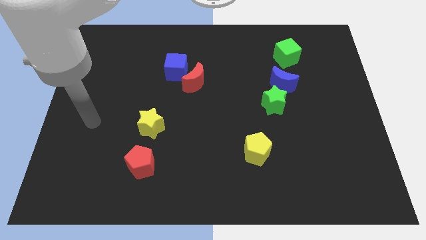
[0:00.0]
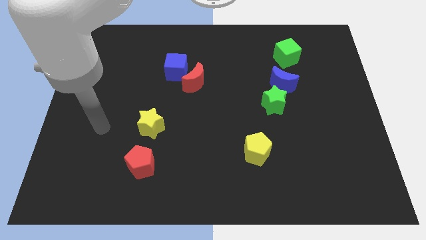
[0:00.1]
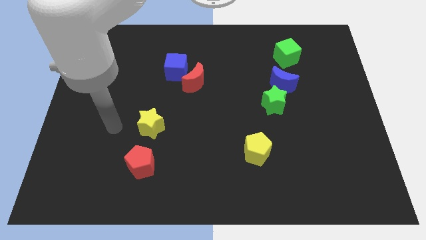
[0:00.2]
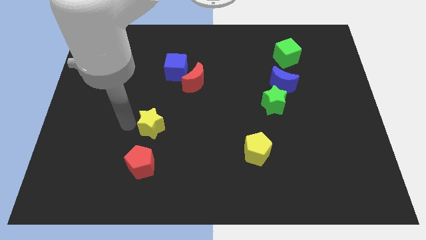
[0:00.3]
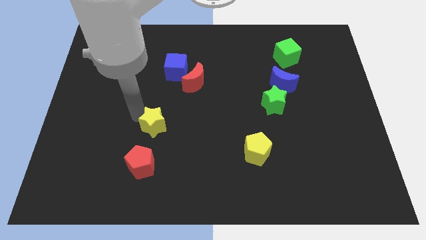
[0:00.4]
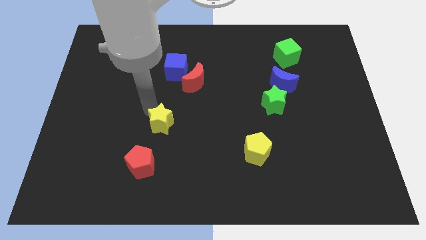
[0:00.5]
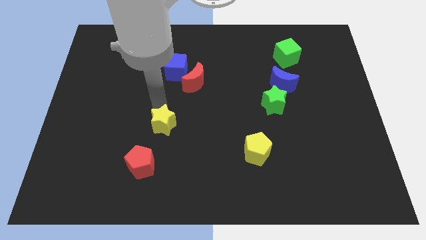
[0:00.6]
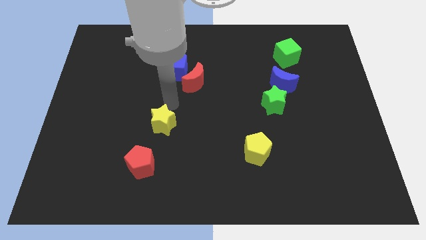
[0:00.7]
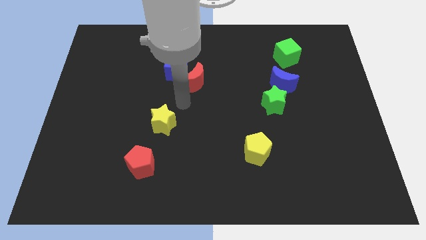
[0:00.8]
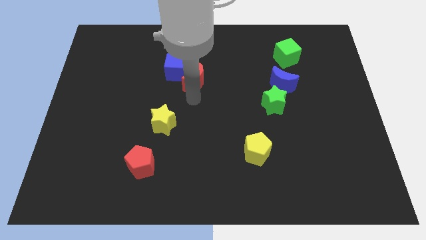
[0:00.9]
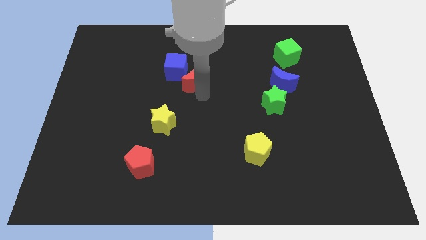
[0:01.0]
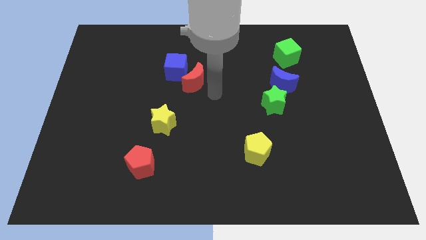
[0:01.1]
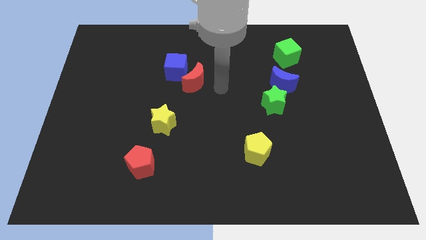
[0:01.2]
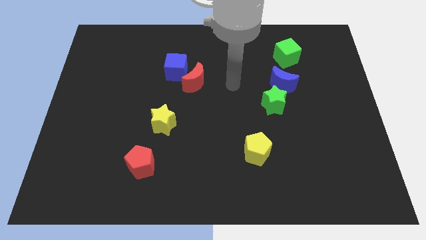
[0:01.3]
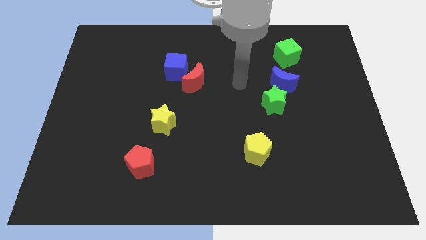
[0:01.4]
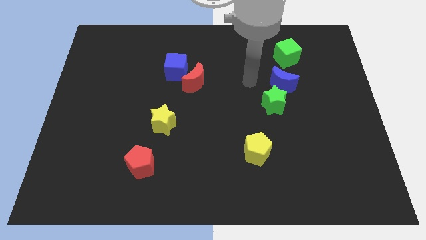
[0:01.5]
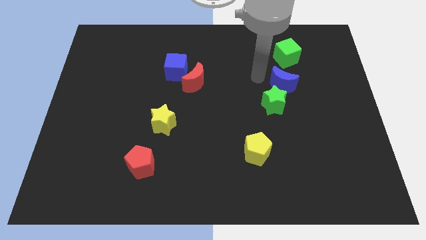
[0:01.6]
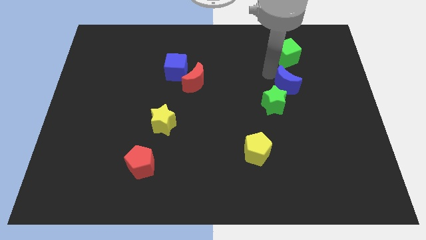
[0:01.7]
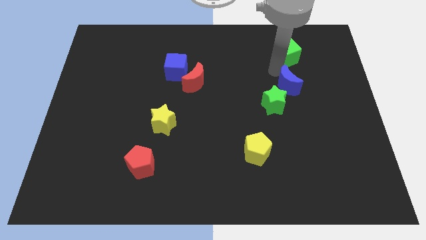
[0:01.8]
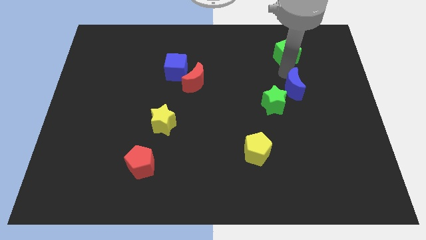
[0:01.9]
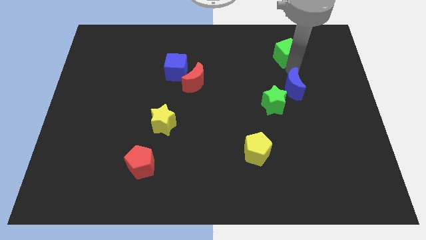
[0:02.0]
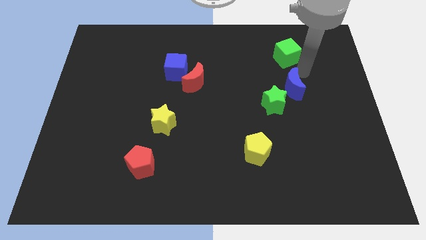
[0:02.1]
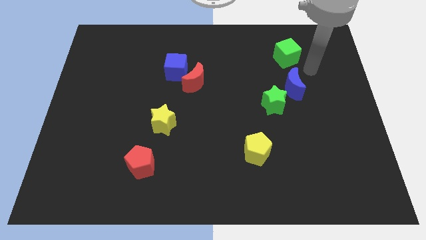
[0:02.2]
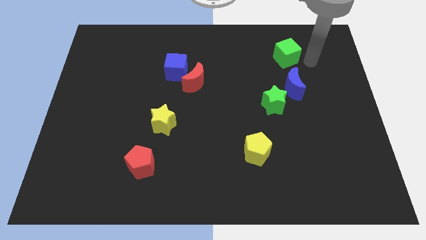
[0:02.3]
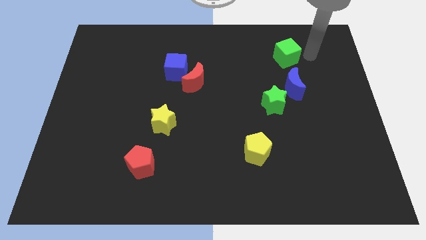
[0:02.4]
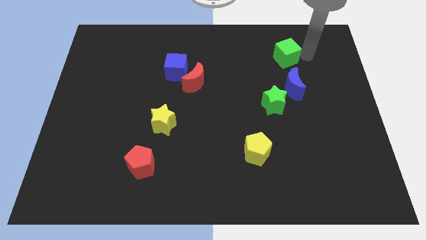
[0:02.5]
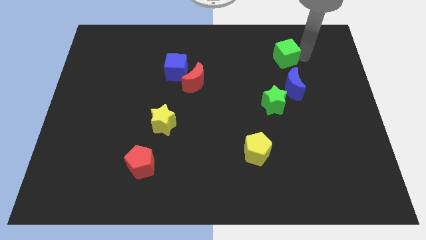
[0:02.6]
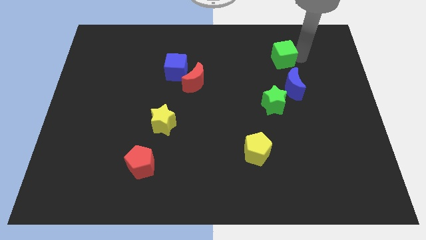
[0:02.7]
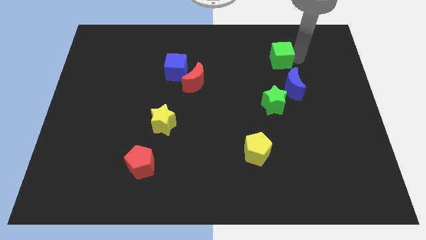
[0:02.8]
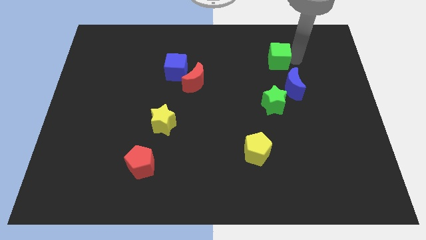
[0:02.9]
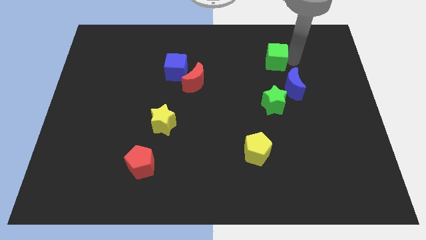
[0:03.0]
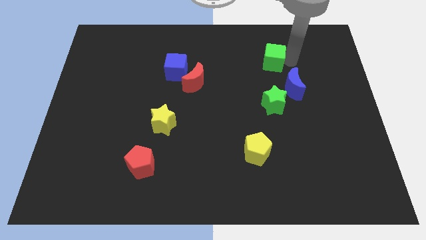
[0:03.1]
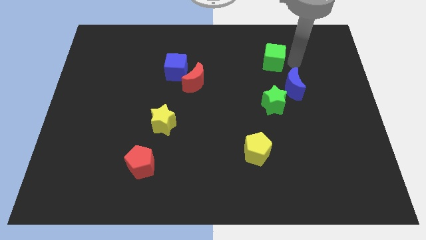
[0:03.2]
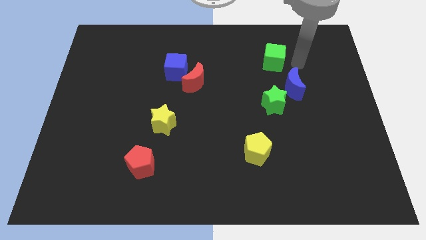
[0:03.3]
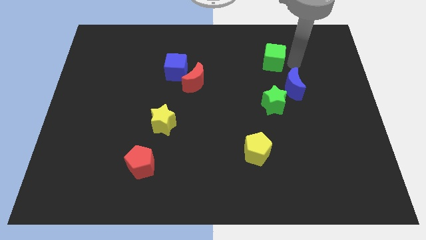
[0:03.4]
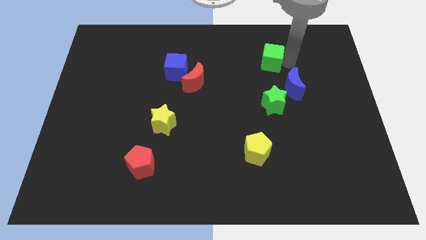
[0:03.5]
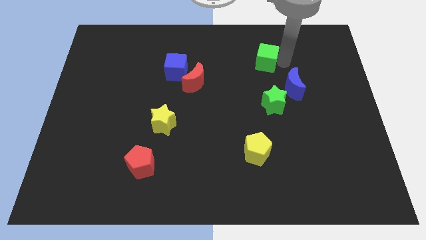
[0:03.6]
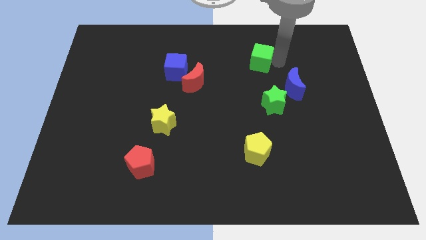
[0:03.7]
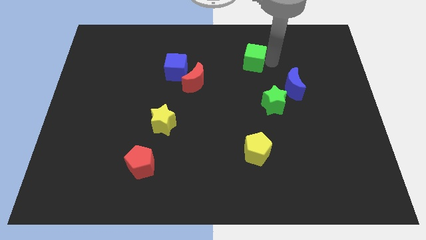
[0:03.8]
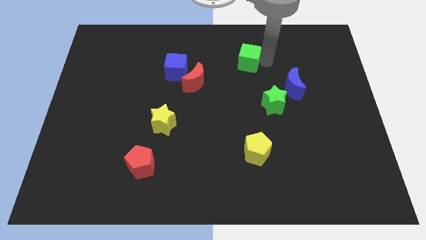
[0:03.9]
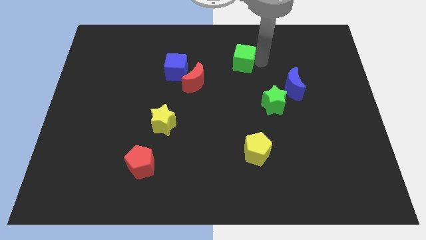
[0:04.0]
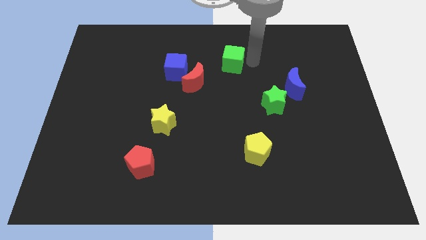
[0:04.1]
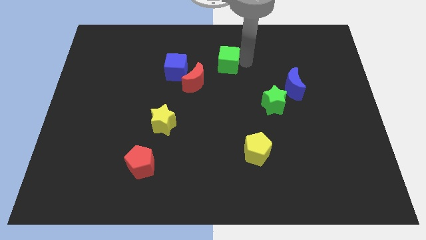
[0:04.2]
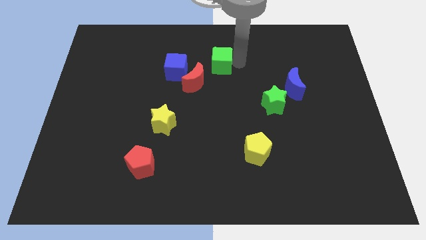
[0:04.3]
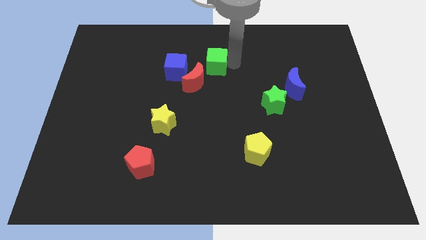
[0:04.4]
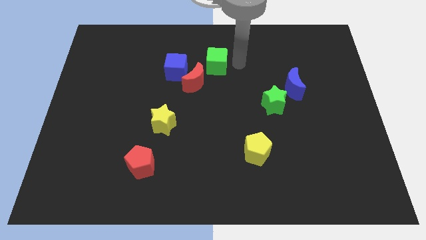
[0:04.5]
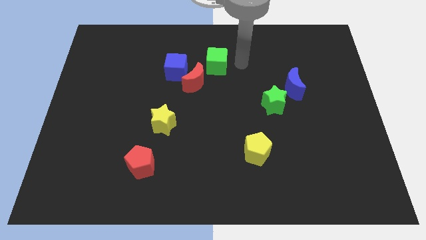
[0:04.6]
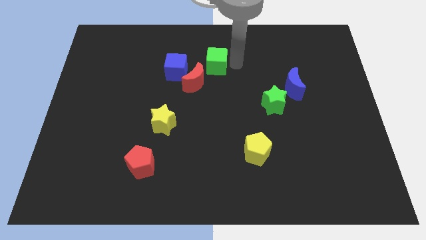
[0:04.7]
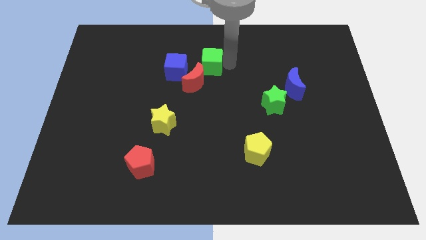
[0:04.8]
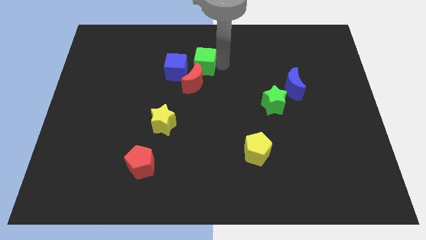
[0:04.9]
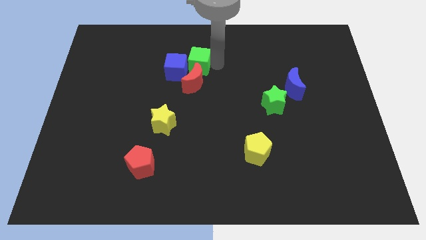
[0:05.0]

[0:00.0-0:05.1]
put the green cube towards the blue cube

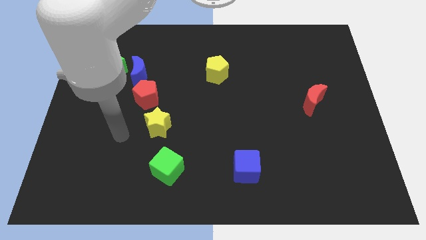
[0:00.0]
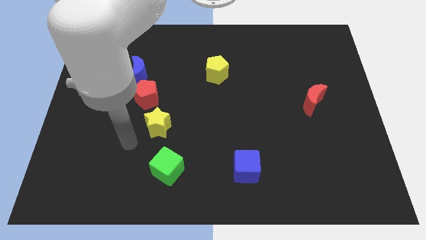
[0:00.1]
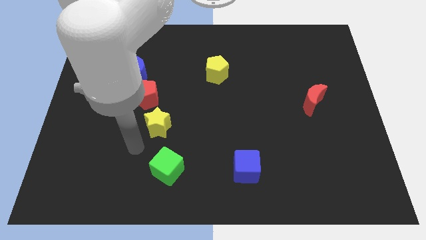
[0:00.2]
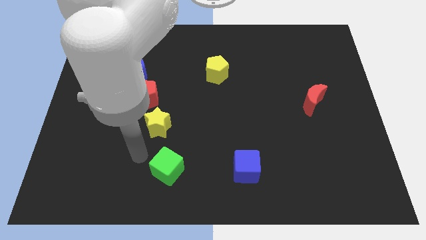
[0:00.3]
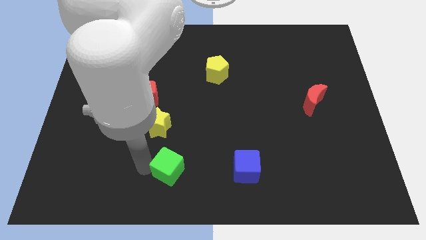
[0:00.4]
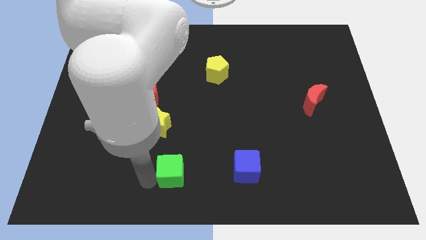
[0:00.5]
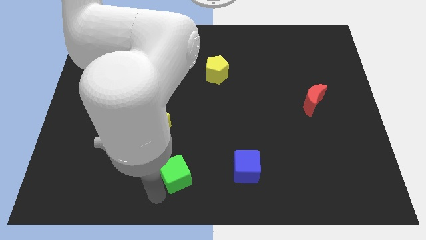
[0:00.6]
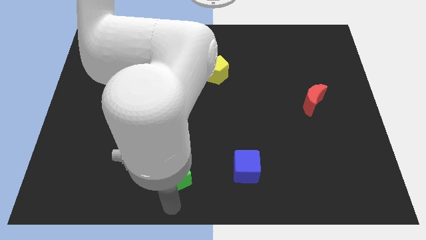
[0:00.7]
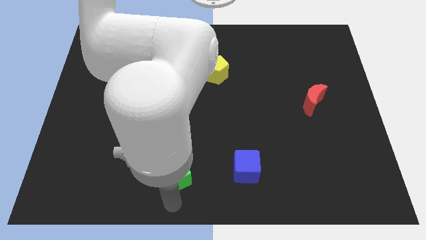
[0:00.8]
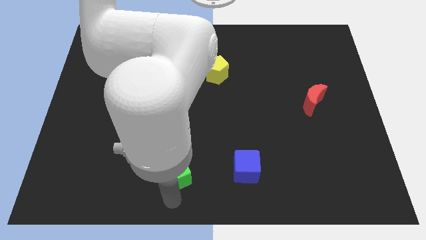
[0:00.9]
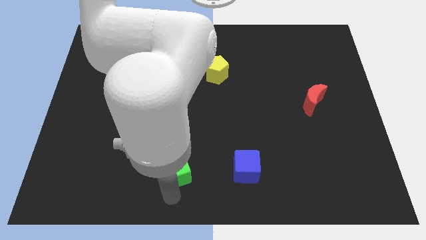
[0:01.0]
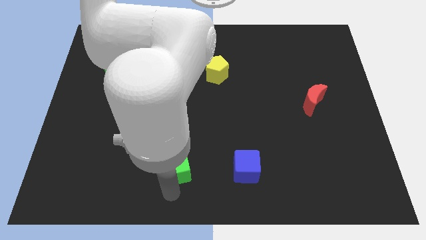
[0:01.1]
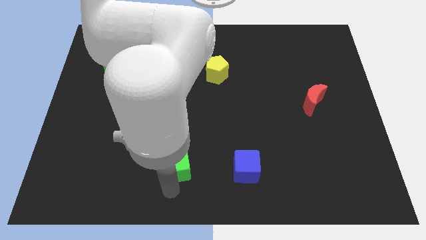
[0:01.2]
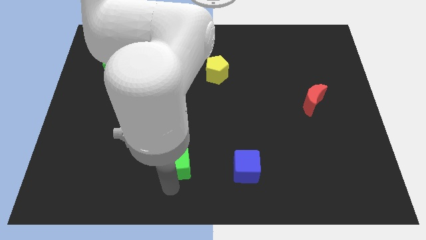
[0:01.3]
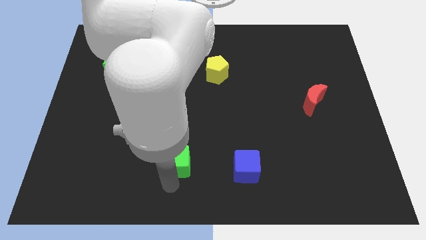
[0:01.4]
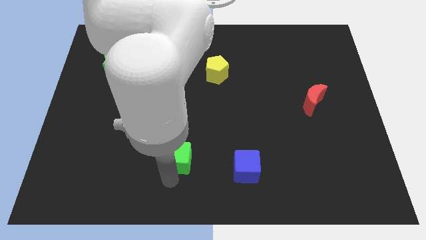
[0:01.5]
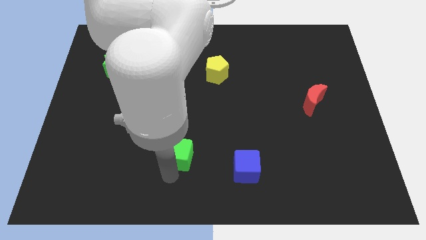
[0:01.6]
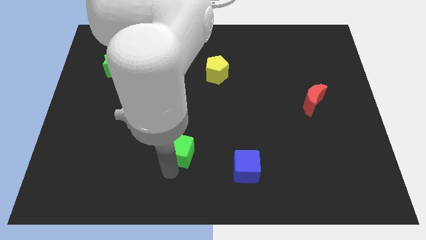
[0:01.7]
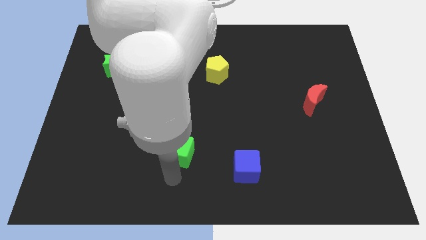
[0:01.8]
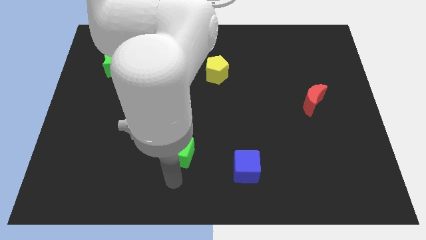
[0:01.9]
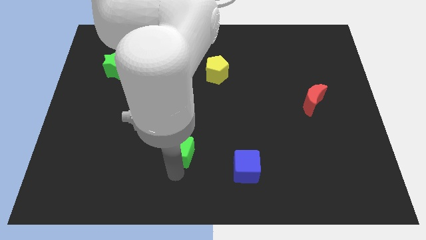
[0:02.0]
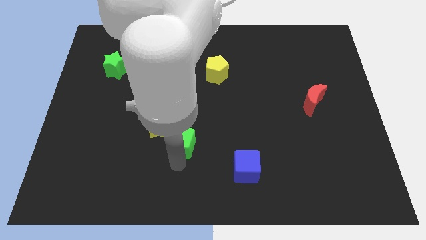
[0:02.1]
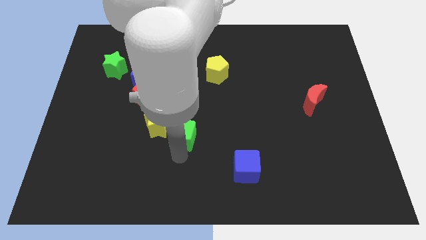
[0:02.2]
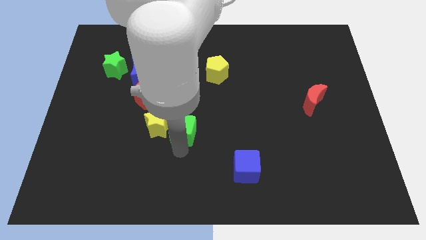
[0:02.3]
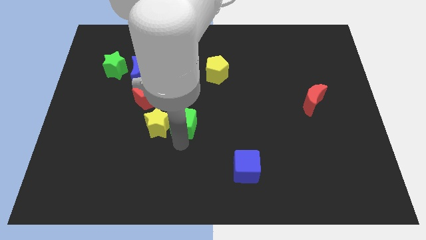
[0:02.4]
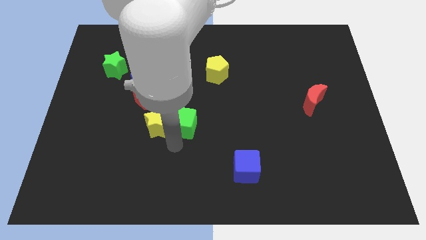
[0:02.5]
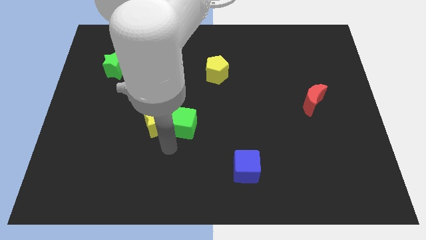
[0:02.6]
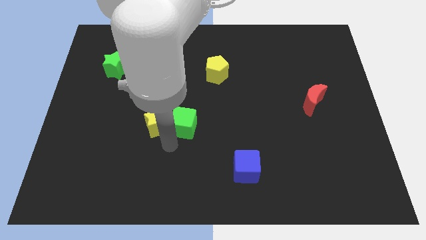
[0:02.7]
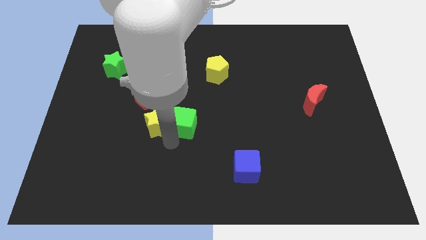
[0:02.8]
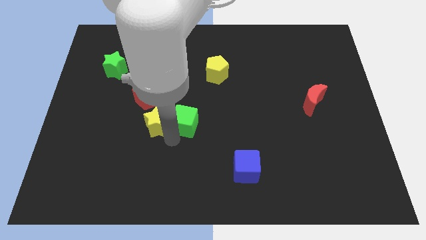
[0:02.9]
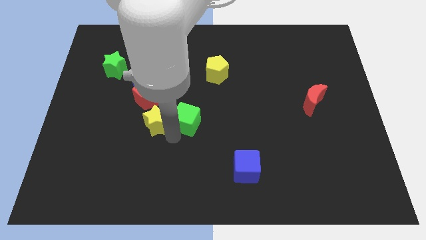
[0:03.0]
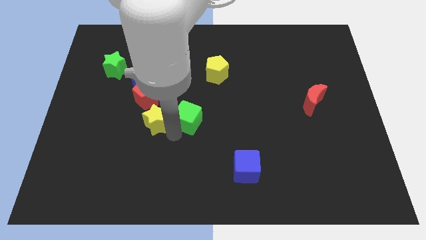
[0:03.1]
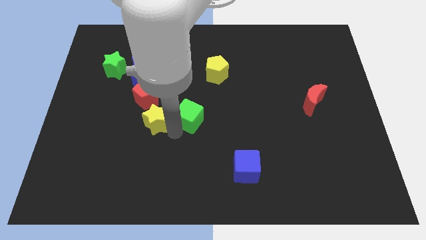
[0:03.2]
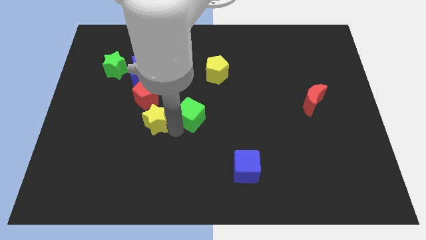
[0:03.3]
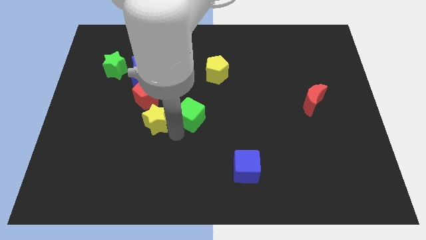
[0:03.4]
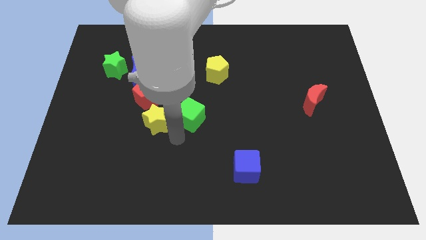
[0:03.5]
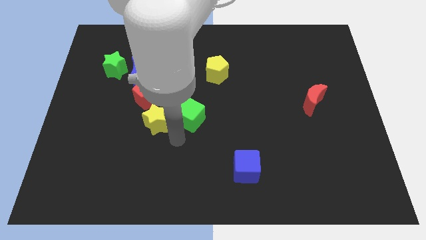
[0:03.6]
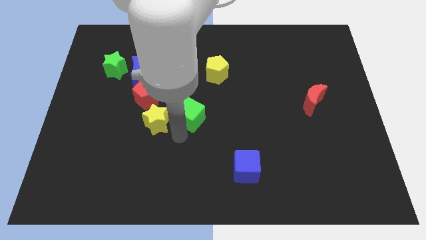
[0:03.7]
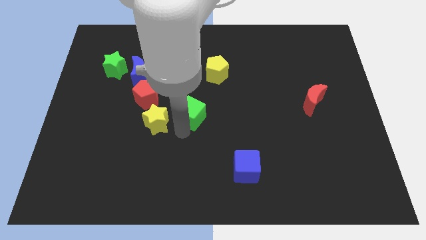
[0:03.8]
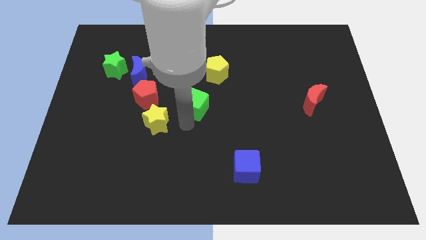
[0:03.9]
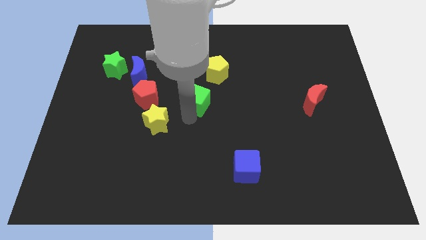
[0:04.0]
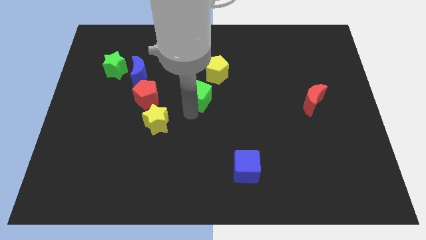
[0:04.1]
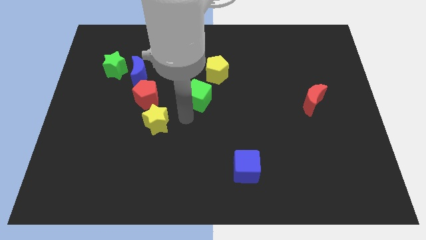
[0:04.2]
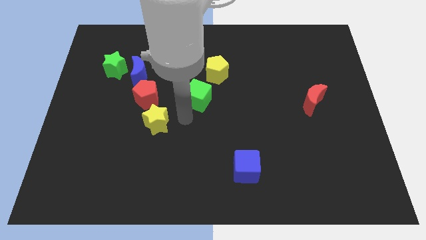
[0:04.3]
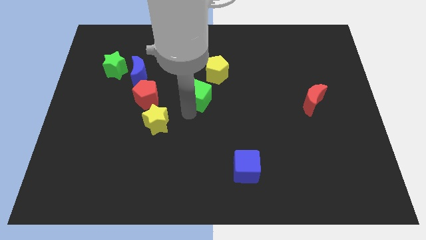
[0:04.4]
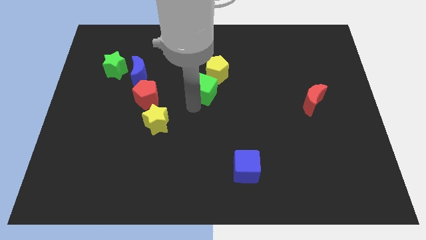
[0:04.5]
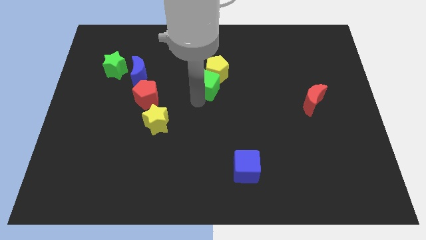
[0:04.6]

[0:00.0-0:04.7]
push the green cube close to the yellow pentagon
